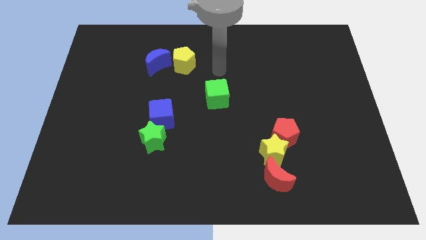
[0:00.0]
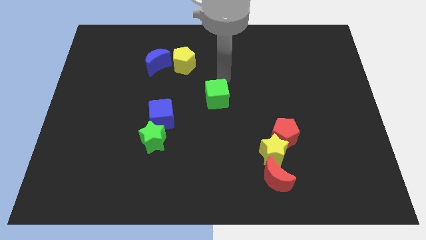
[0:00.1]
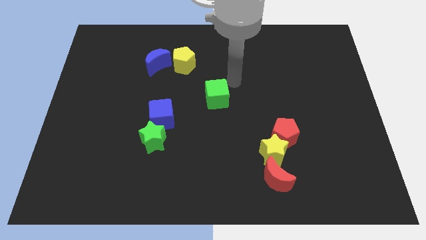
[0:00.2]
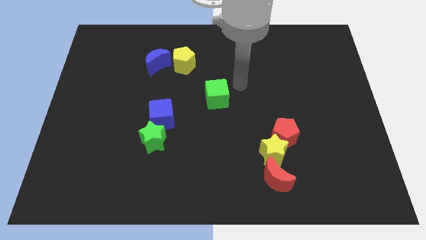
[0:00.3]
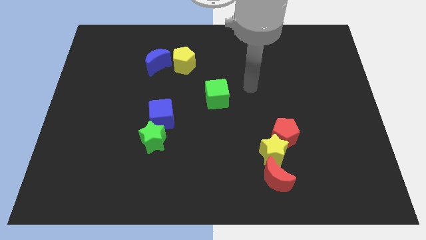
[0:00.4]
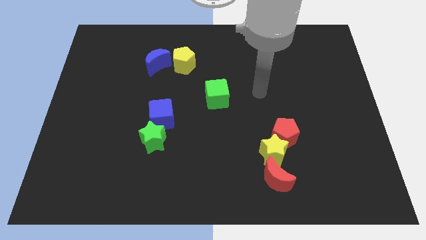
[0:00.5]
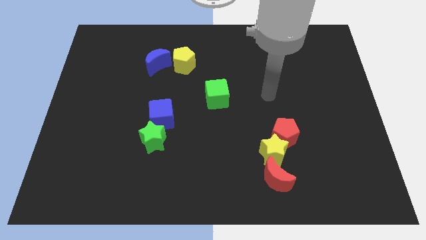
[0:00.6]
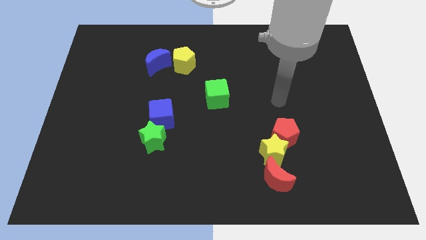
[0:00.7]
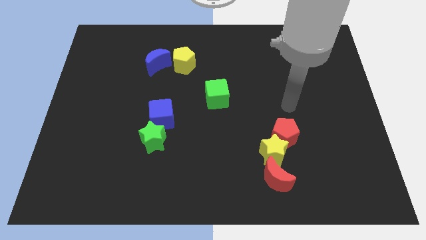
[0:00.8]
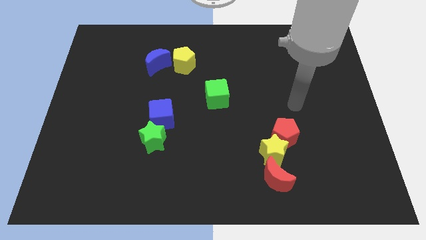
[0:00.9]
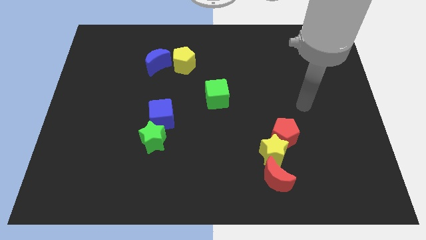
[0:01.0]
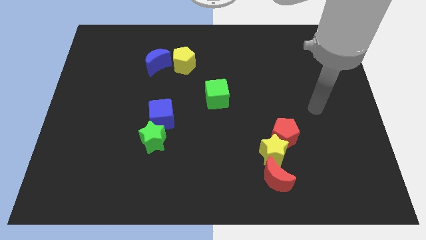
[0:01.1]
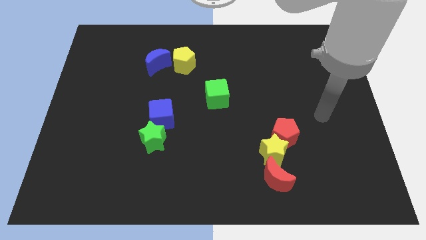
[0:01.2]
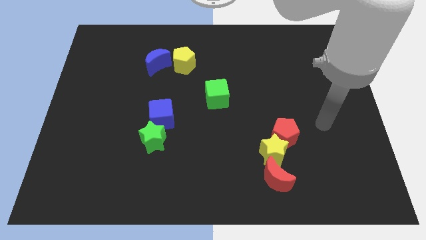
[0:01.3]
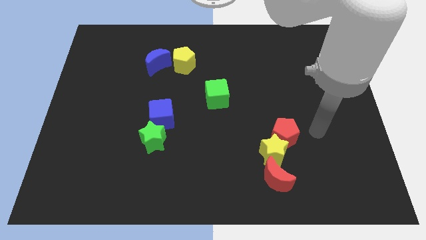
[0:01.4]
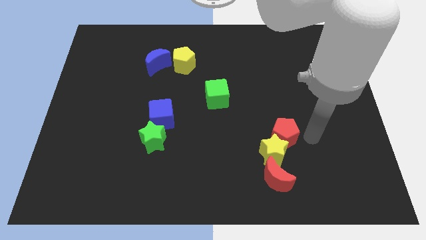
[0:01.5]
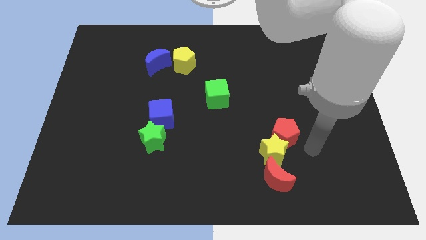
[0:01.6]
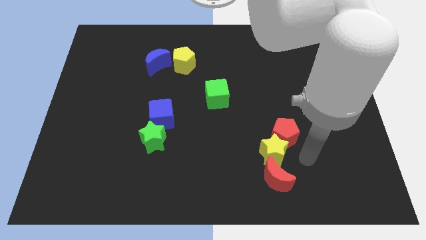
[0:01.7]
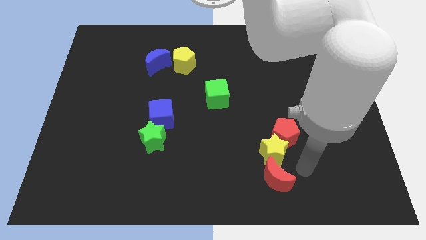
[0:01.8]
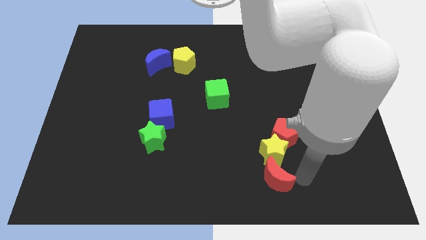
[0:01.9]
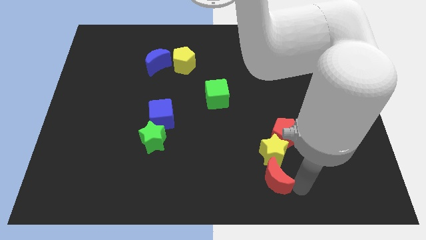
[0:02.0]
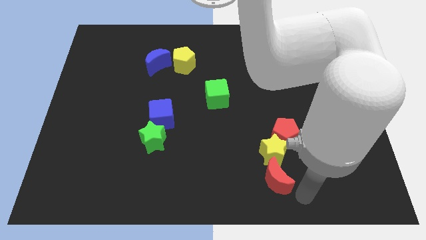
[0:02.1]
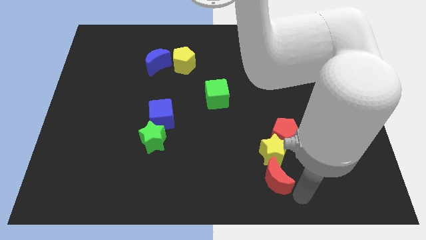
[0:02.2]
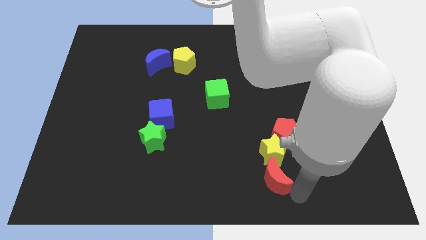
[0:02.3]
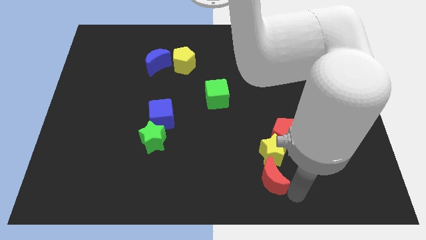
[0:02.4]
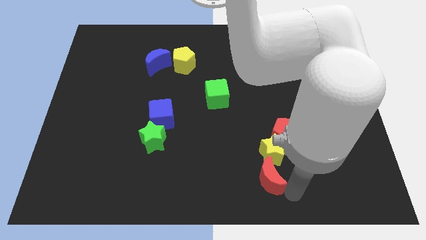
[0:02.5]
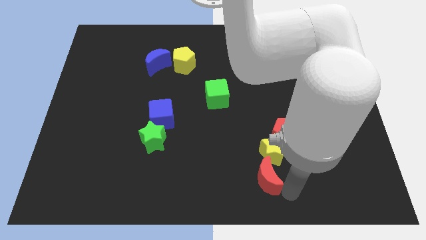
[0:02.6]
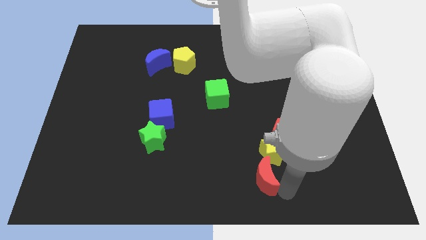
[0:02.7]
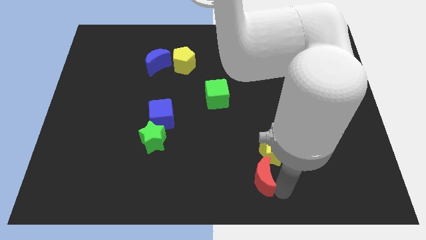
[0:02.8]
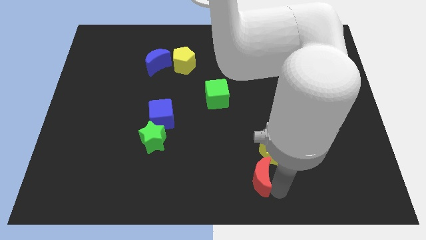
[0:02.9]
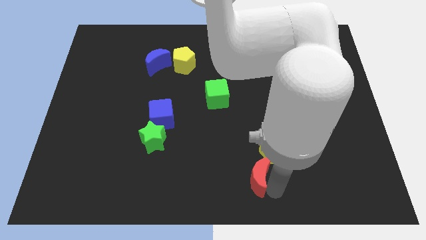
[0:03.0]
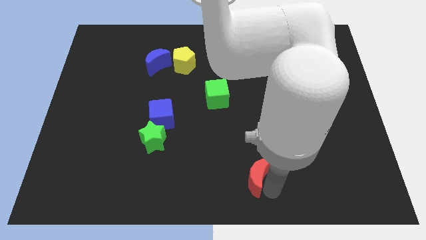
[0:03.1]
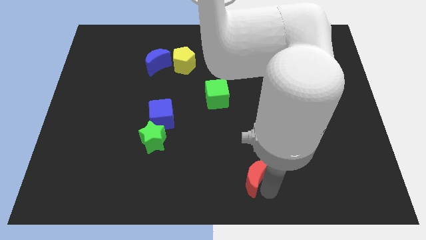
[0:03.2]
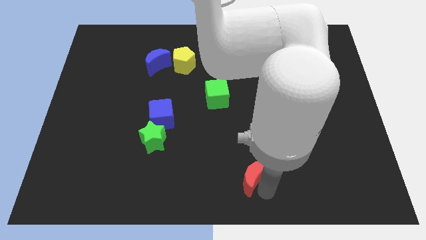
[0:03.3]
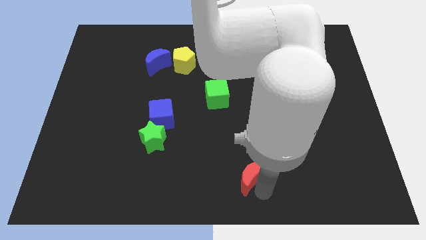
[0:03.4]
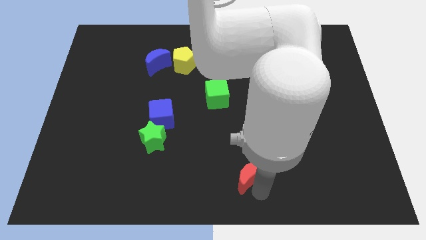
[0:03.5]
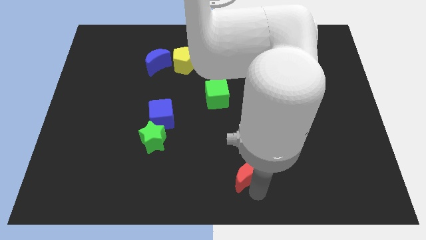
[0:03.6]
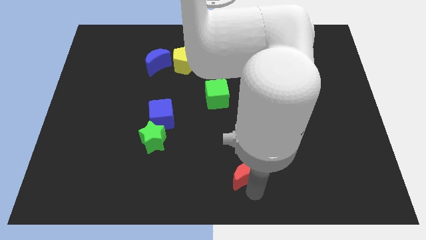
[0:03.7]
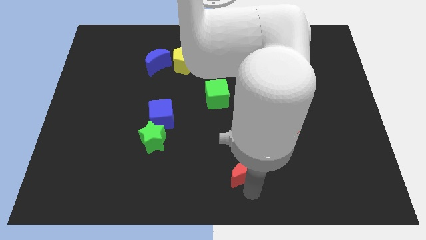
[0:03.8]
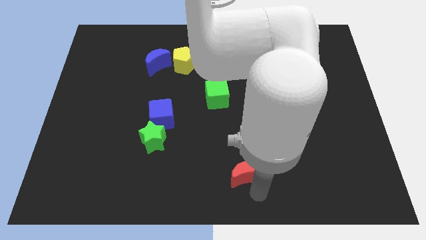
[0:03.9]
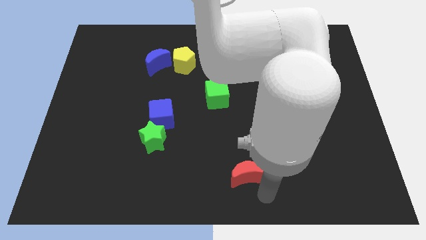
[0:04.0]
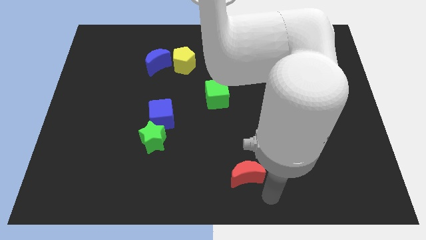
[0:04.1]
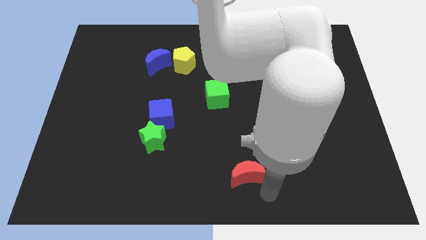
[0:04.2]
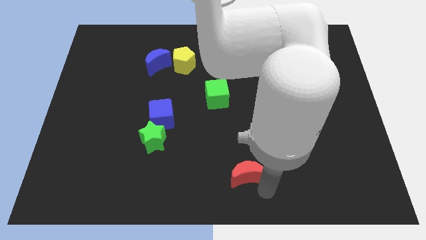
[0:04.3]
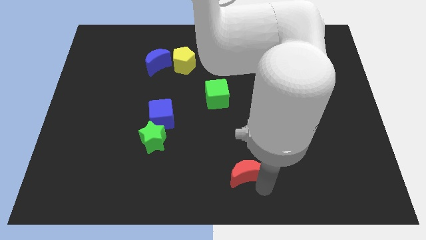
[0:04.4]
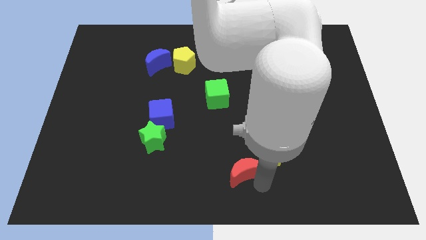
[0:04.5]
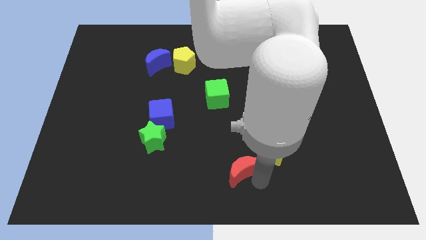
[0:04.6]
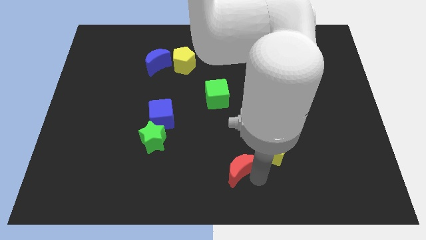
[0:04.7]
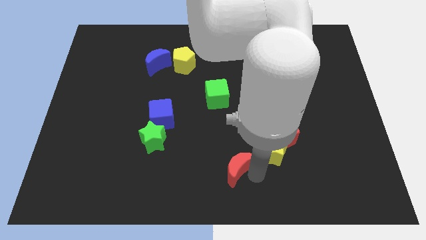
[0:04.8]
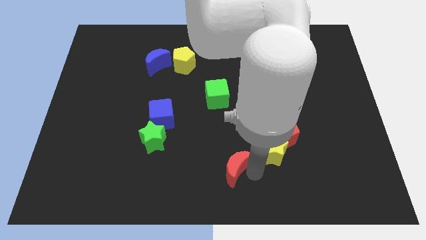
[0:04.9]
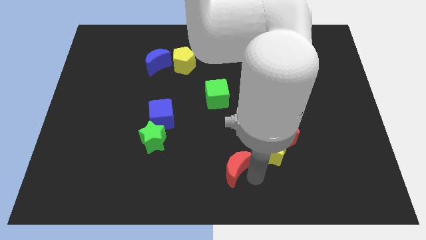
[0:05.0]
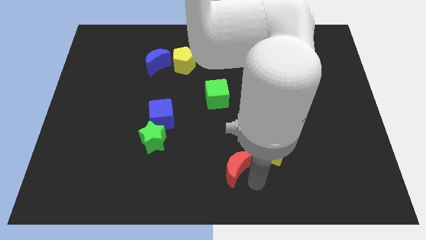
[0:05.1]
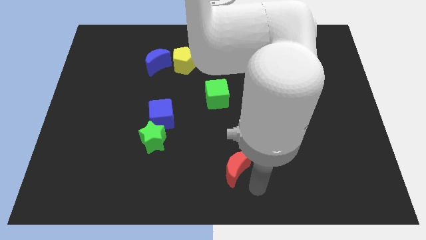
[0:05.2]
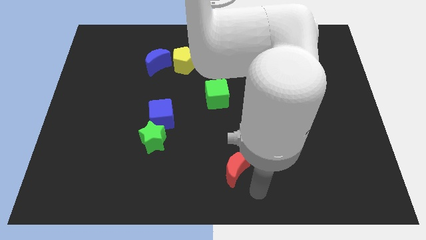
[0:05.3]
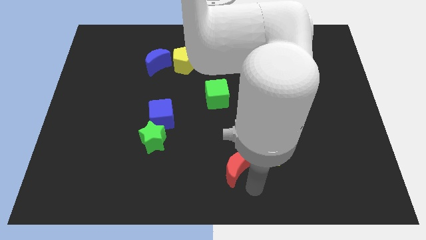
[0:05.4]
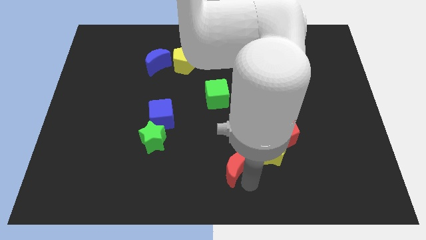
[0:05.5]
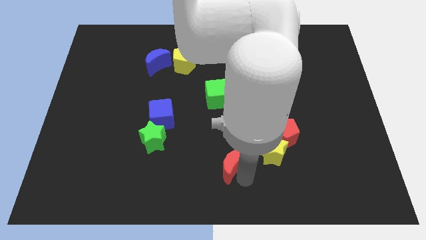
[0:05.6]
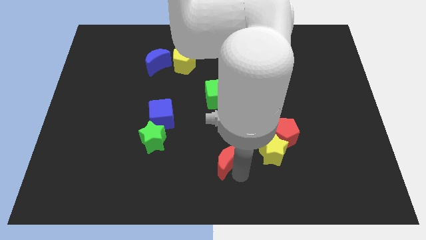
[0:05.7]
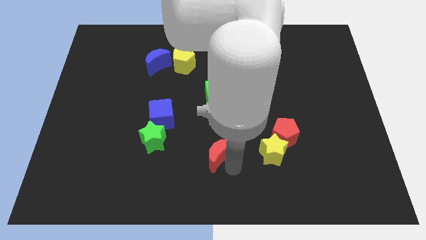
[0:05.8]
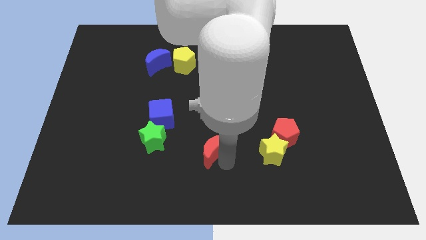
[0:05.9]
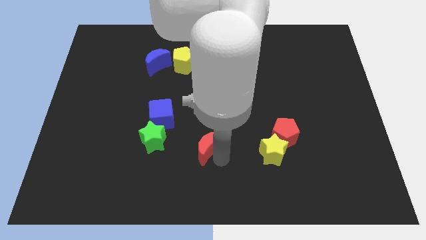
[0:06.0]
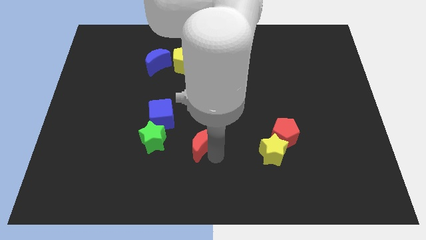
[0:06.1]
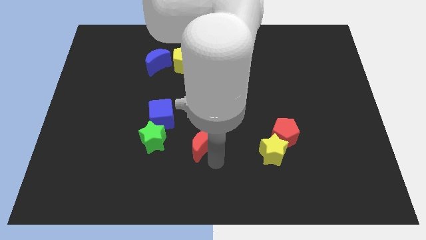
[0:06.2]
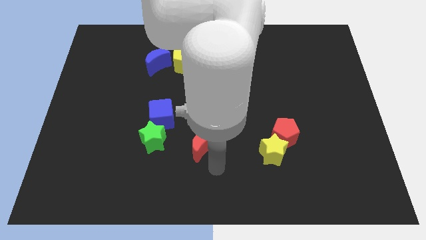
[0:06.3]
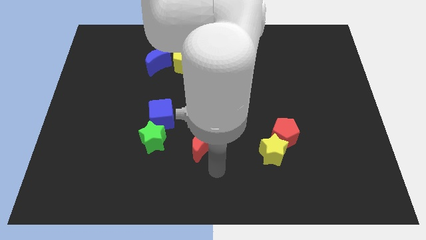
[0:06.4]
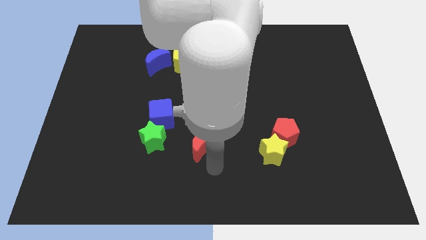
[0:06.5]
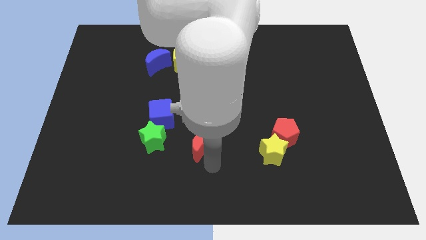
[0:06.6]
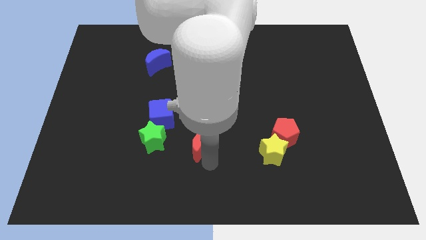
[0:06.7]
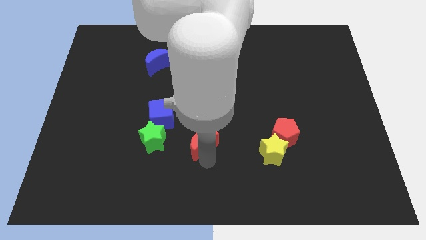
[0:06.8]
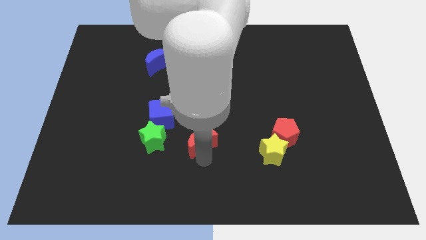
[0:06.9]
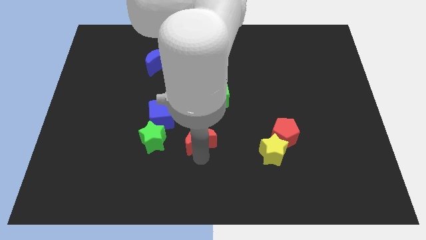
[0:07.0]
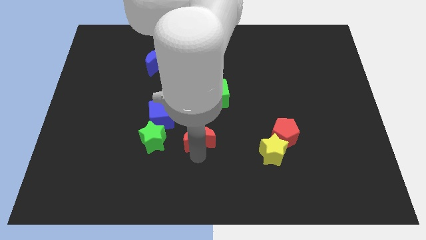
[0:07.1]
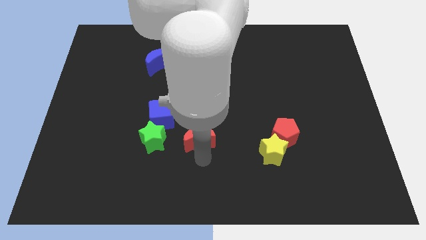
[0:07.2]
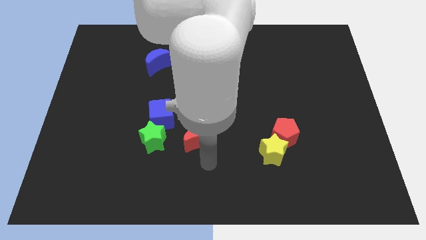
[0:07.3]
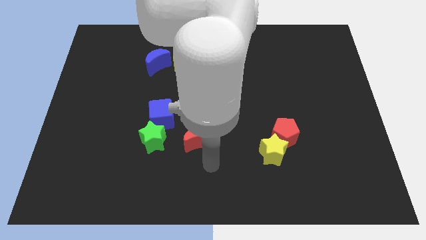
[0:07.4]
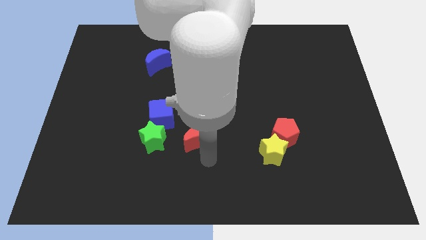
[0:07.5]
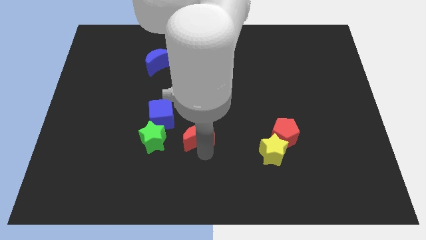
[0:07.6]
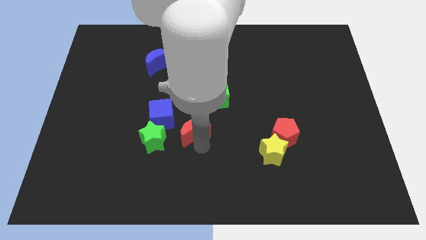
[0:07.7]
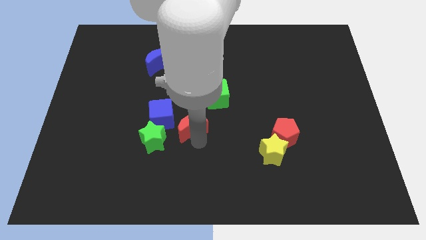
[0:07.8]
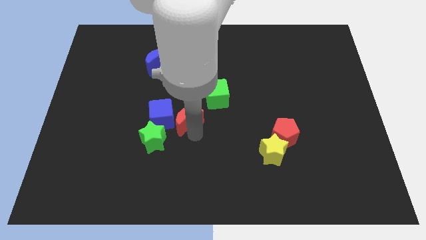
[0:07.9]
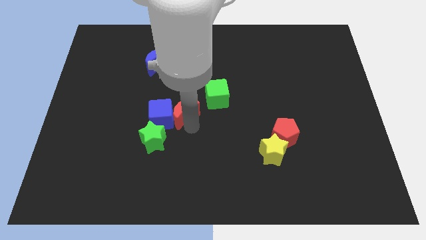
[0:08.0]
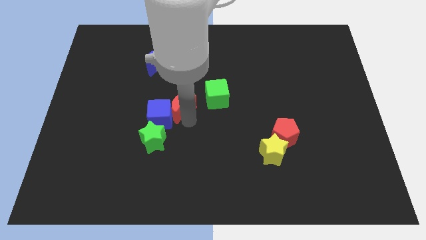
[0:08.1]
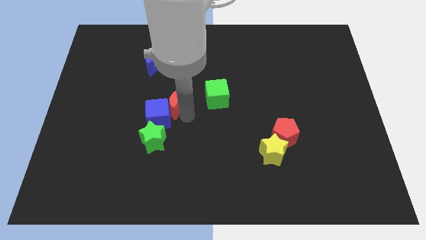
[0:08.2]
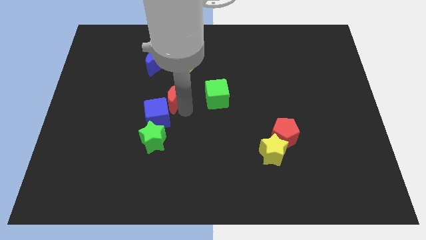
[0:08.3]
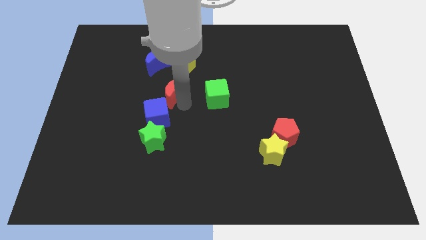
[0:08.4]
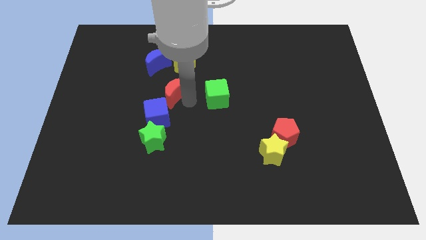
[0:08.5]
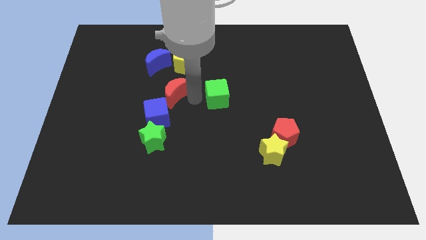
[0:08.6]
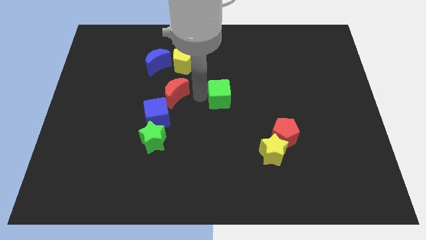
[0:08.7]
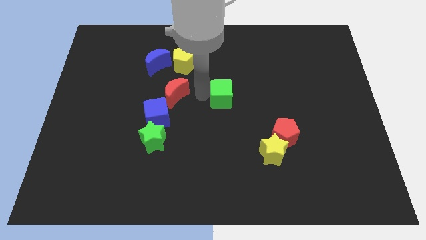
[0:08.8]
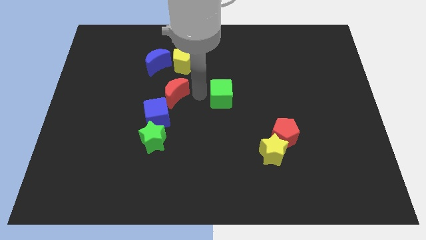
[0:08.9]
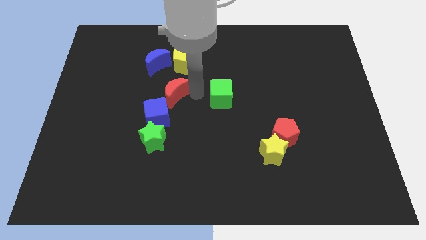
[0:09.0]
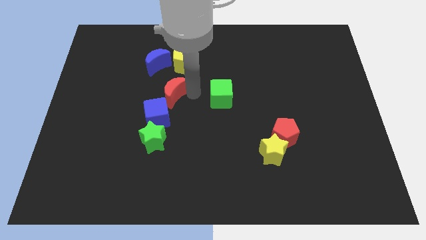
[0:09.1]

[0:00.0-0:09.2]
slide the red moon to the bottom side of the blue moon
